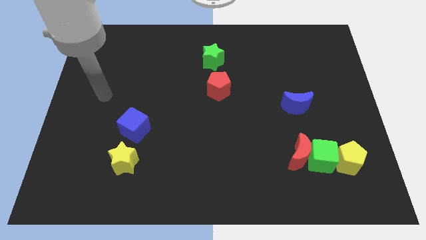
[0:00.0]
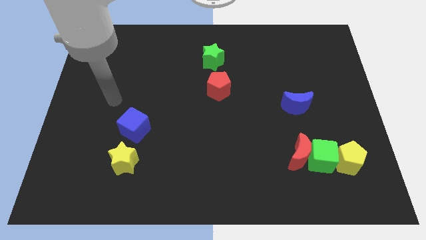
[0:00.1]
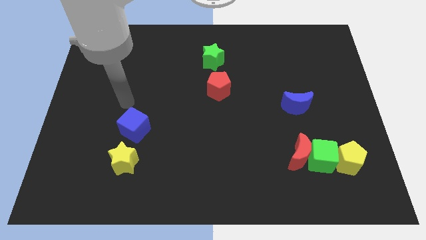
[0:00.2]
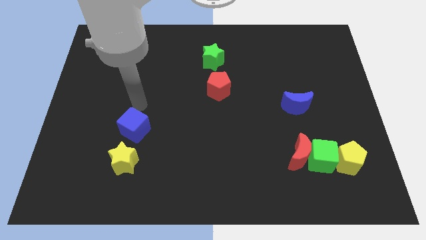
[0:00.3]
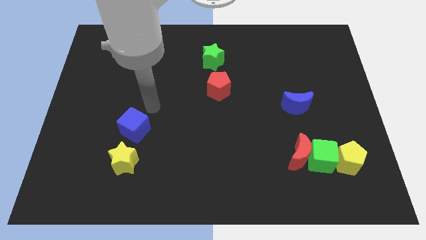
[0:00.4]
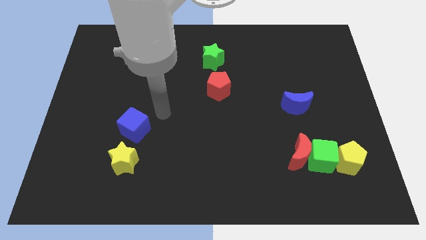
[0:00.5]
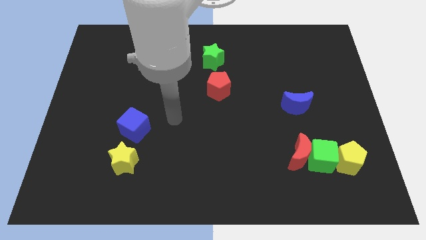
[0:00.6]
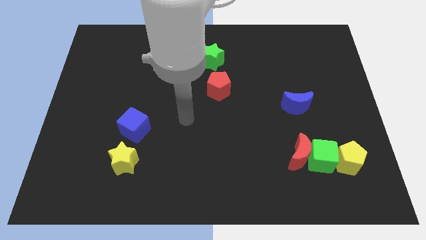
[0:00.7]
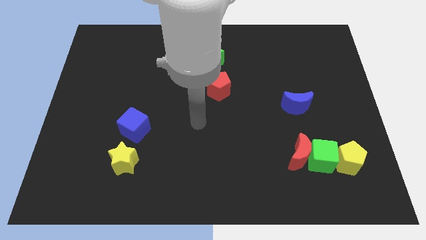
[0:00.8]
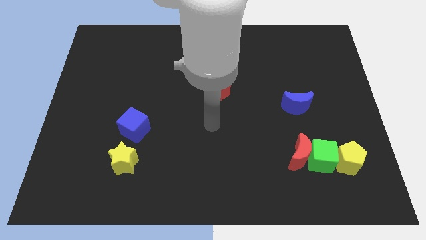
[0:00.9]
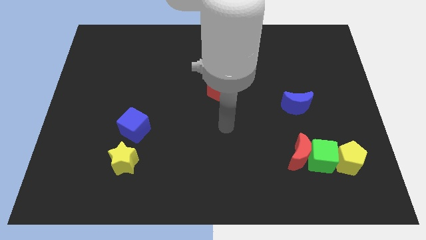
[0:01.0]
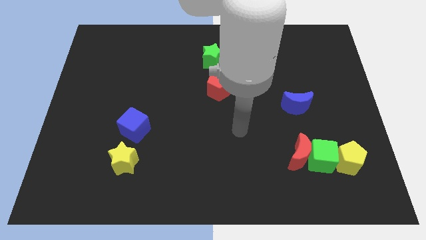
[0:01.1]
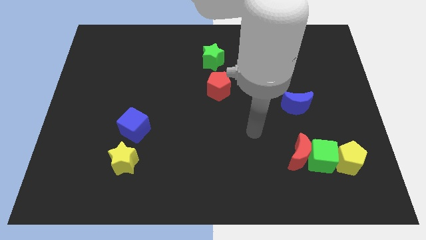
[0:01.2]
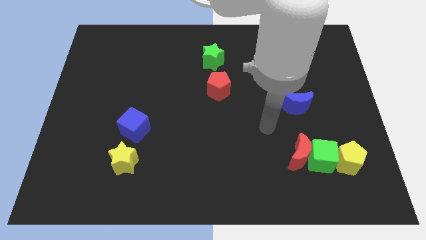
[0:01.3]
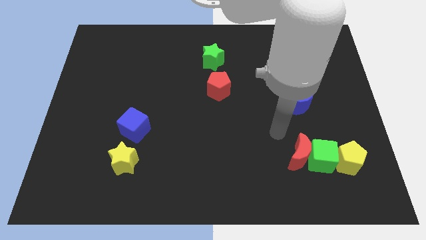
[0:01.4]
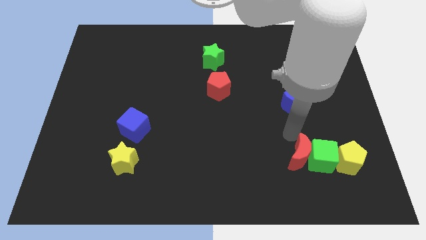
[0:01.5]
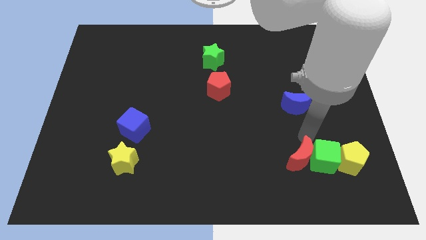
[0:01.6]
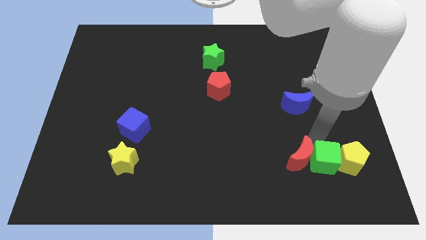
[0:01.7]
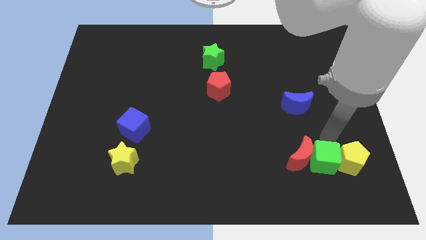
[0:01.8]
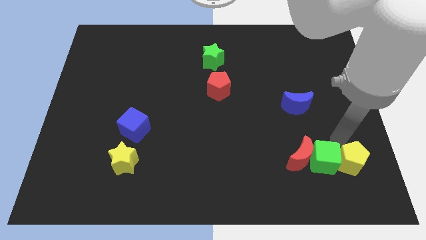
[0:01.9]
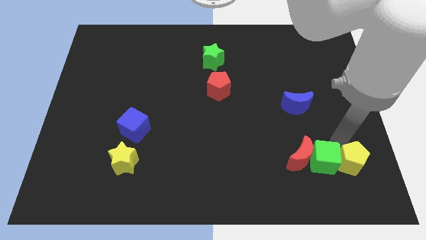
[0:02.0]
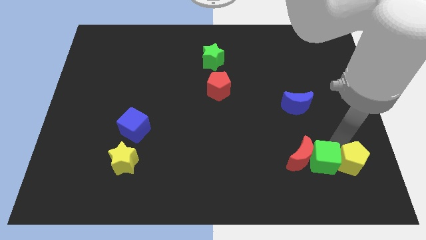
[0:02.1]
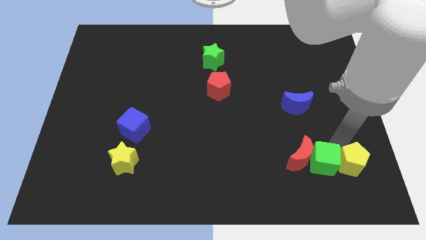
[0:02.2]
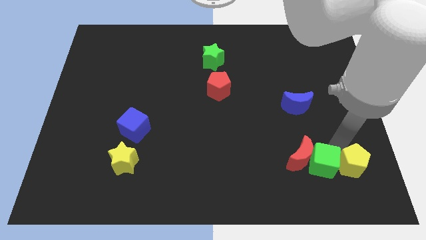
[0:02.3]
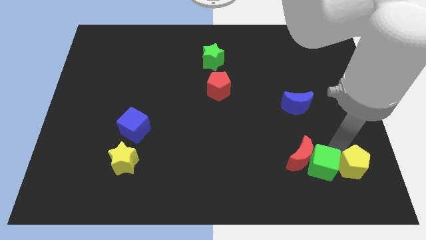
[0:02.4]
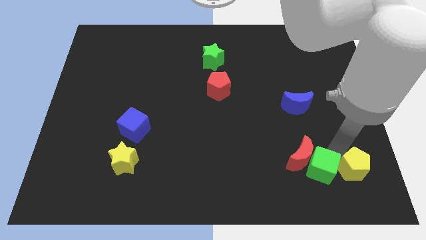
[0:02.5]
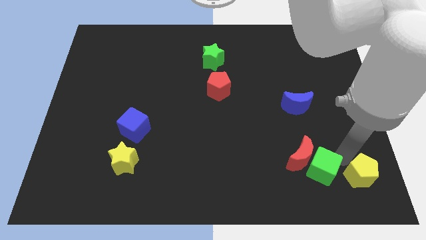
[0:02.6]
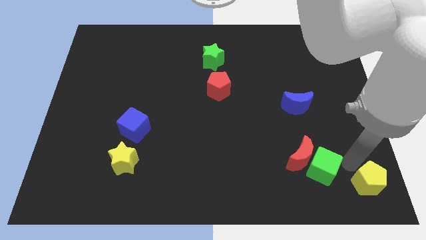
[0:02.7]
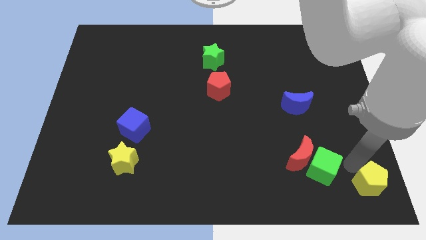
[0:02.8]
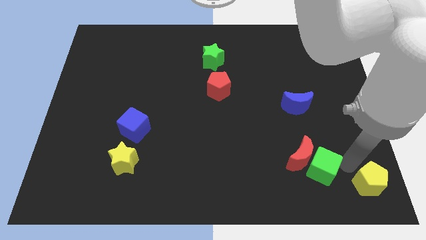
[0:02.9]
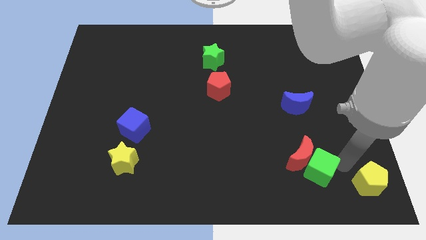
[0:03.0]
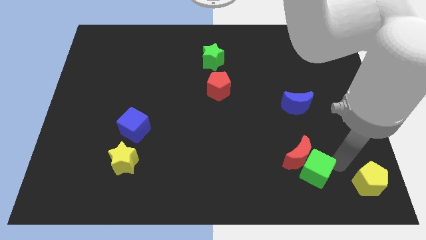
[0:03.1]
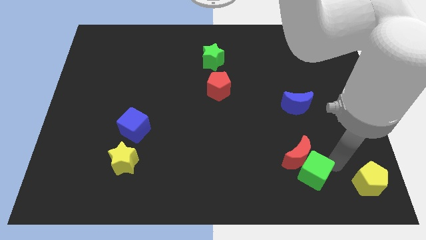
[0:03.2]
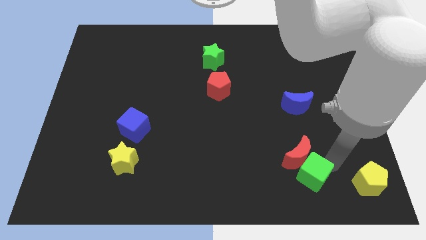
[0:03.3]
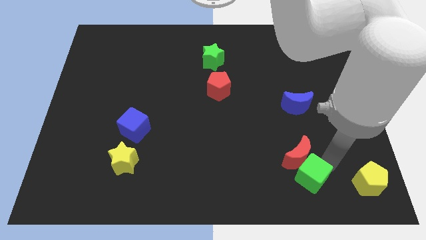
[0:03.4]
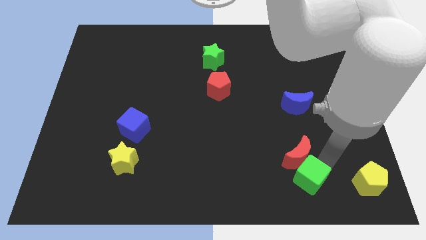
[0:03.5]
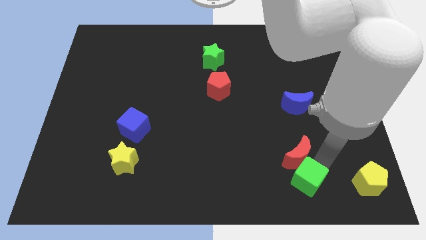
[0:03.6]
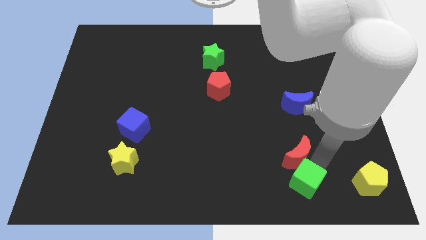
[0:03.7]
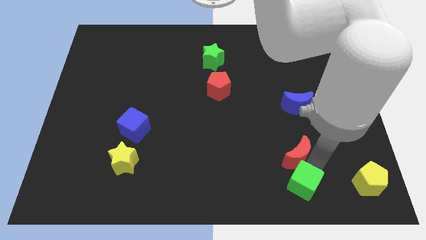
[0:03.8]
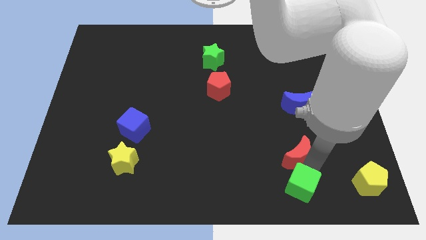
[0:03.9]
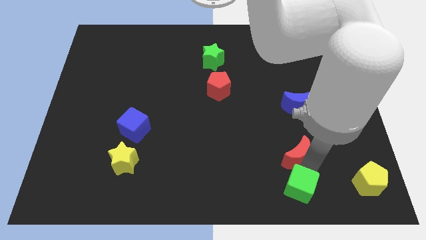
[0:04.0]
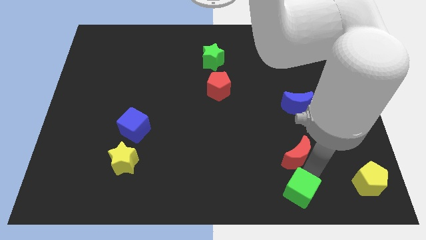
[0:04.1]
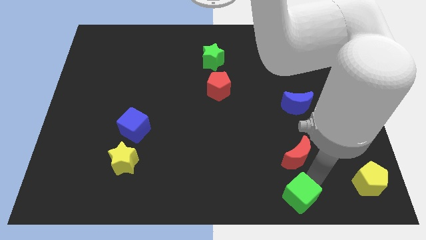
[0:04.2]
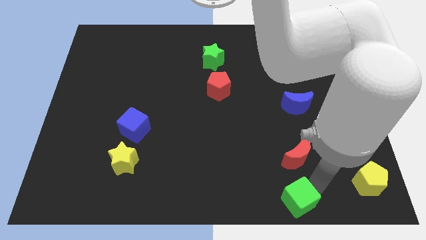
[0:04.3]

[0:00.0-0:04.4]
pull the green cube apart from the red moon and yellow pentagon

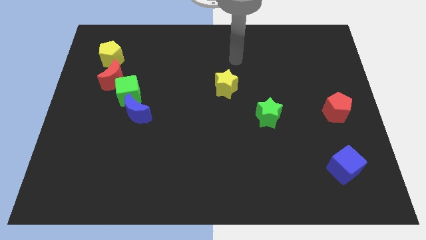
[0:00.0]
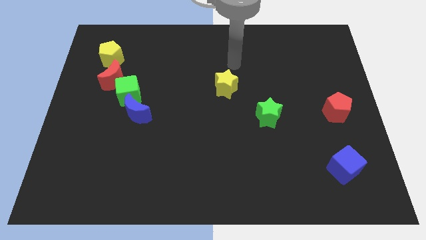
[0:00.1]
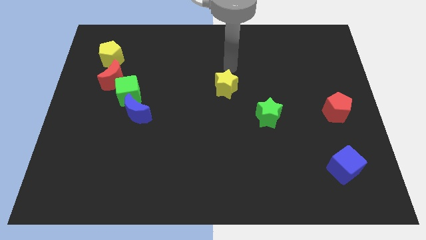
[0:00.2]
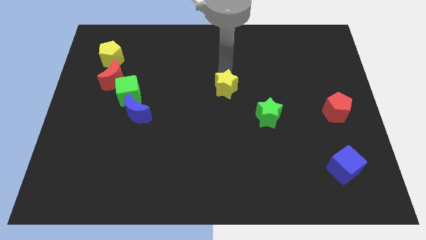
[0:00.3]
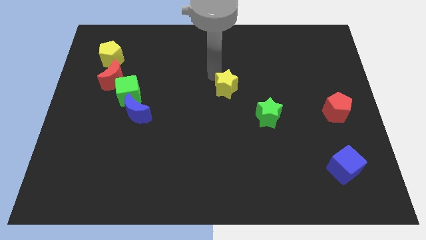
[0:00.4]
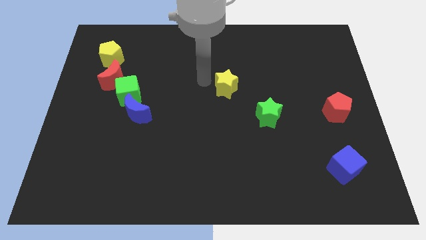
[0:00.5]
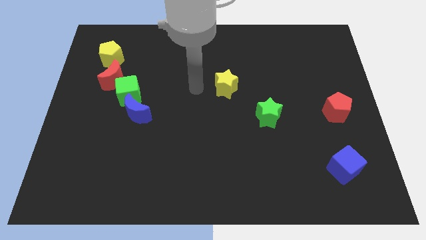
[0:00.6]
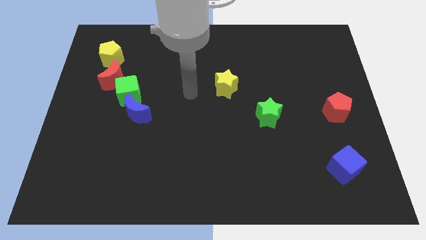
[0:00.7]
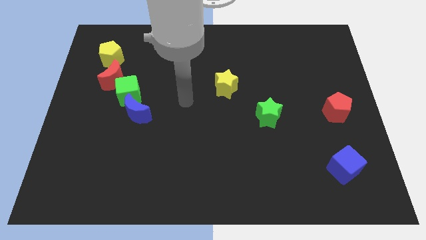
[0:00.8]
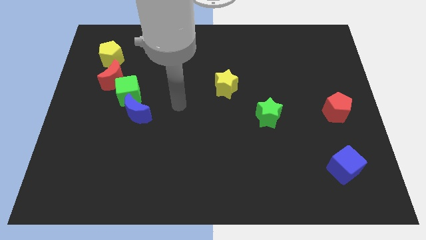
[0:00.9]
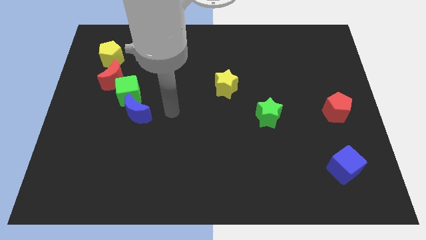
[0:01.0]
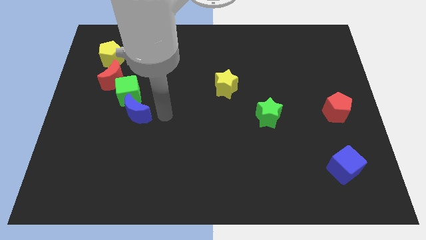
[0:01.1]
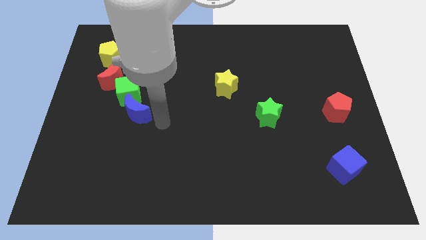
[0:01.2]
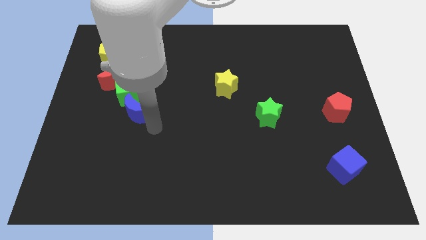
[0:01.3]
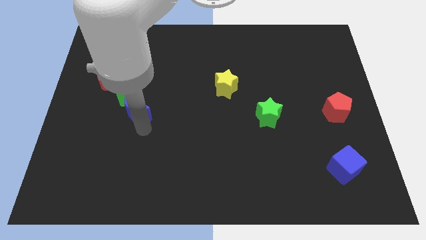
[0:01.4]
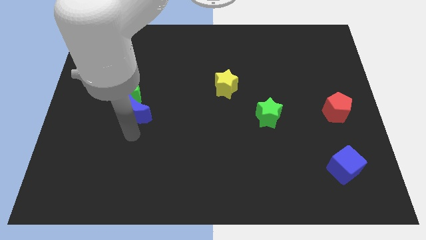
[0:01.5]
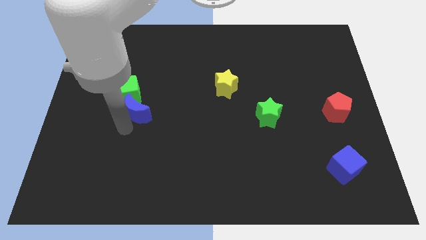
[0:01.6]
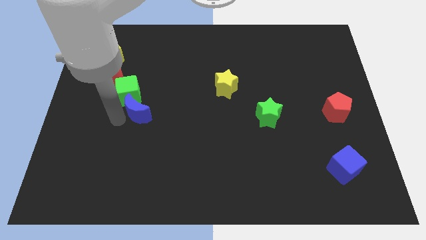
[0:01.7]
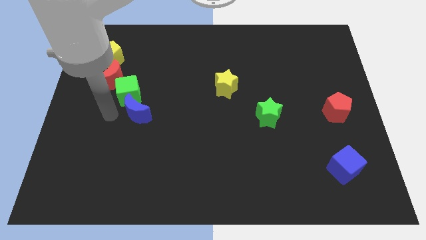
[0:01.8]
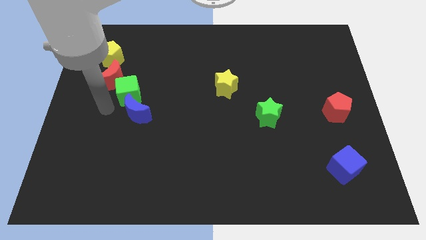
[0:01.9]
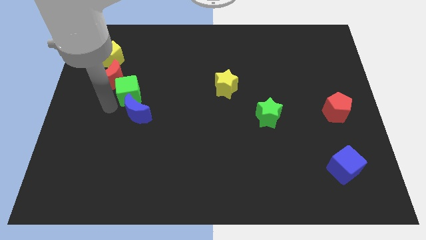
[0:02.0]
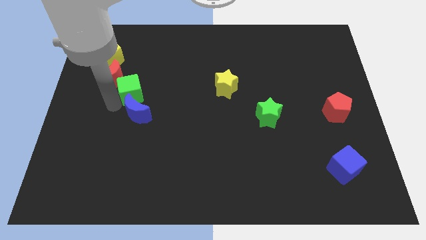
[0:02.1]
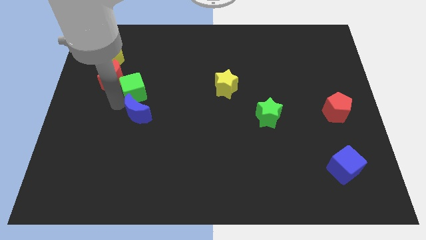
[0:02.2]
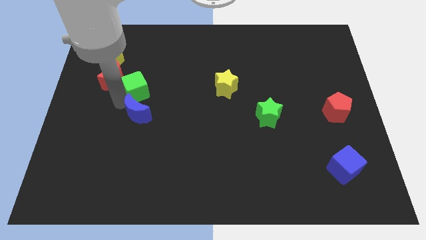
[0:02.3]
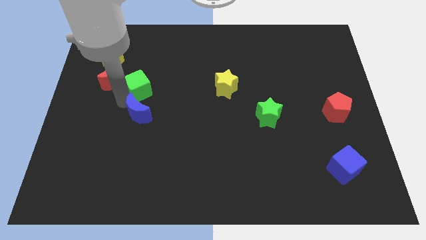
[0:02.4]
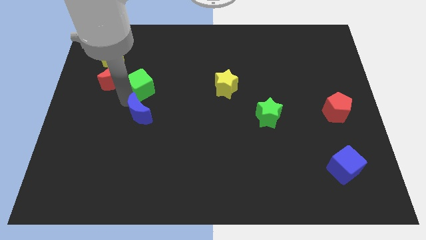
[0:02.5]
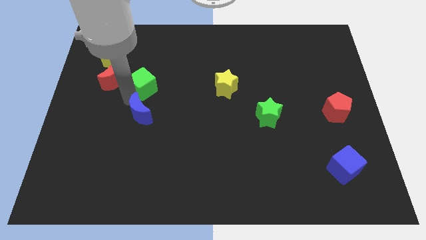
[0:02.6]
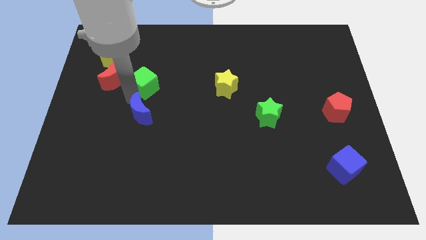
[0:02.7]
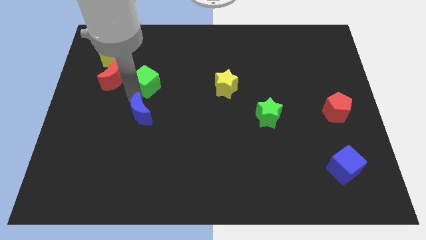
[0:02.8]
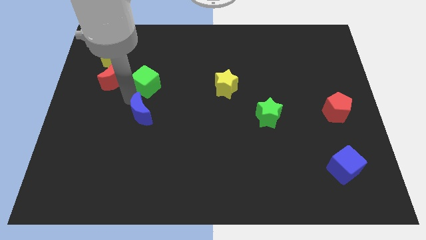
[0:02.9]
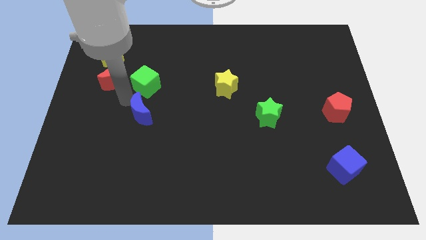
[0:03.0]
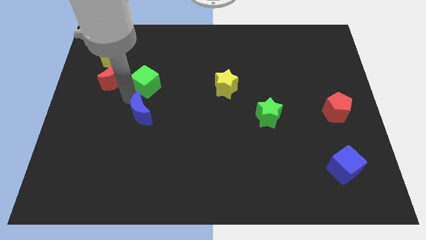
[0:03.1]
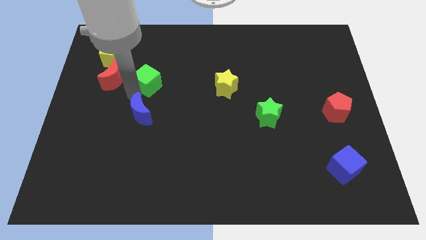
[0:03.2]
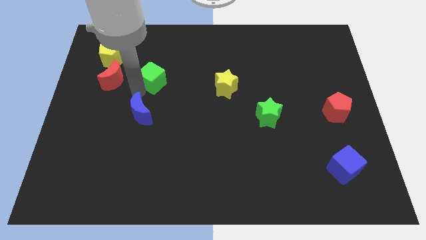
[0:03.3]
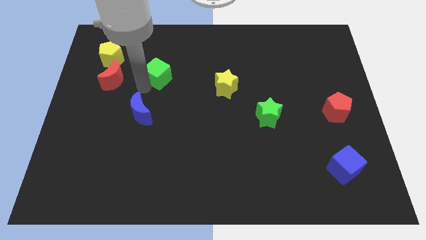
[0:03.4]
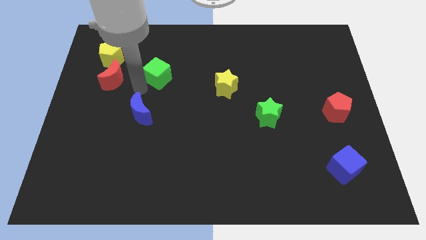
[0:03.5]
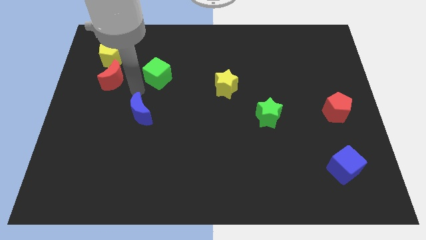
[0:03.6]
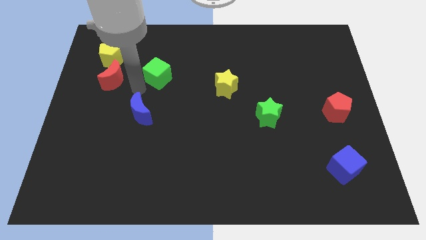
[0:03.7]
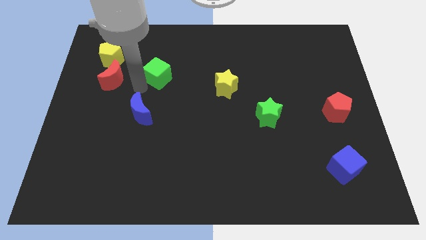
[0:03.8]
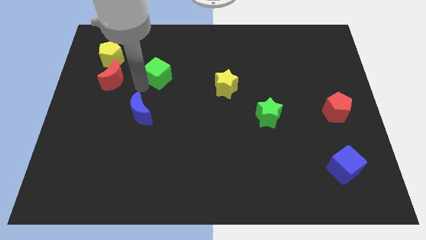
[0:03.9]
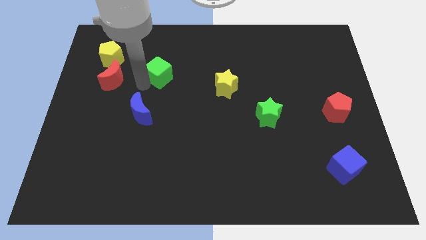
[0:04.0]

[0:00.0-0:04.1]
move the green cube away from the red moon and blue moon

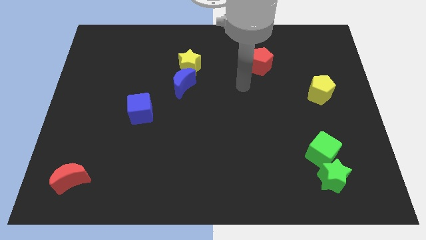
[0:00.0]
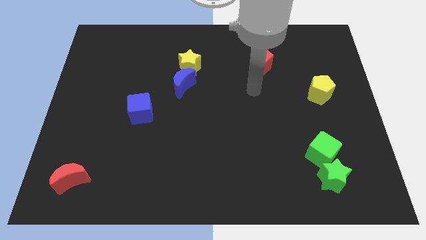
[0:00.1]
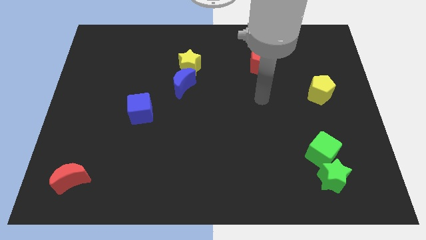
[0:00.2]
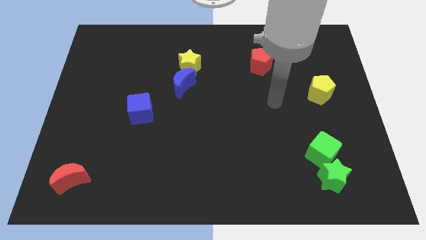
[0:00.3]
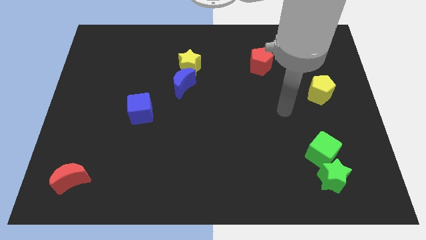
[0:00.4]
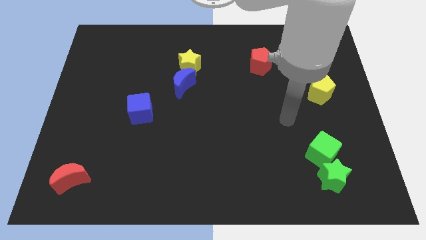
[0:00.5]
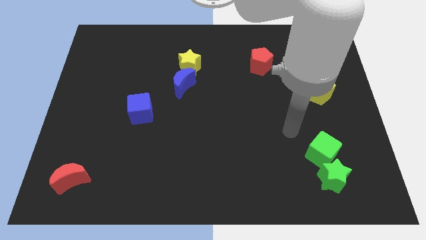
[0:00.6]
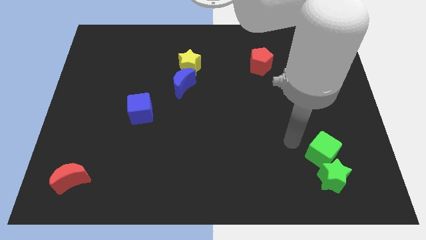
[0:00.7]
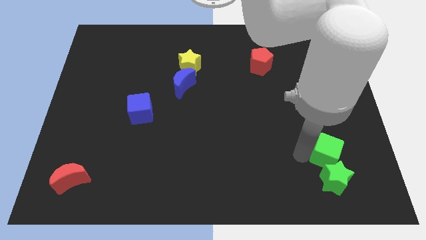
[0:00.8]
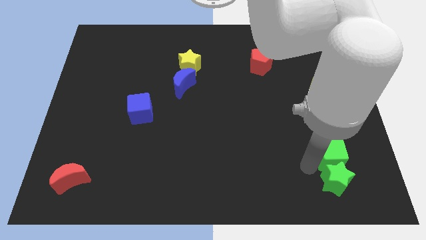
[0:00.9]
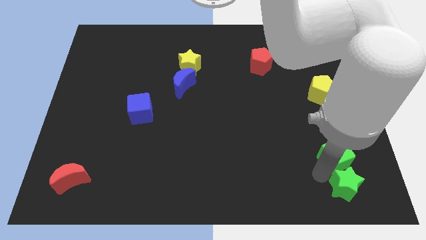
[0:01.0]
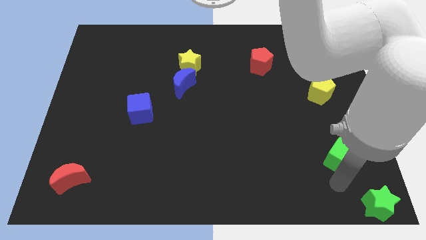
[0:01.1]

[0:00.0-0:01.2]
separate the green cube from the green star
